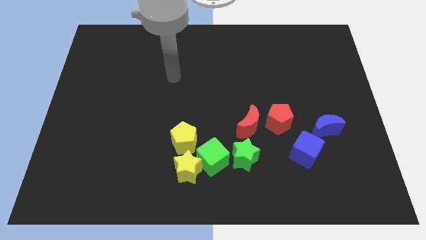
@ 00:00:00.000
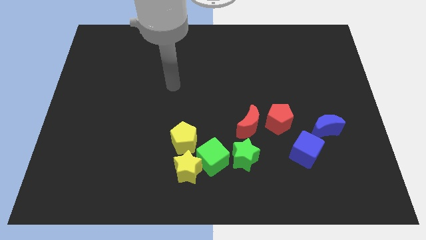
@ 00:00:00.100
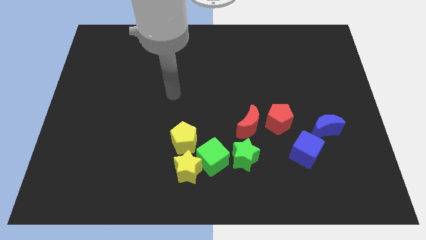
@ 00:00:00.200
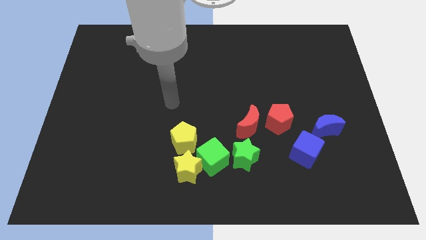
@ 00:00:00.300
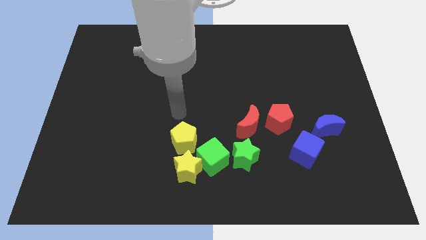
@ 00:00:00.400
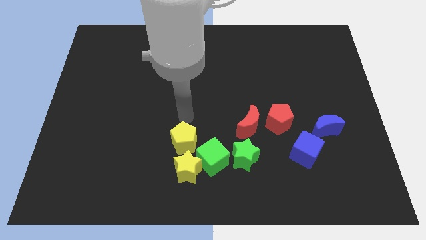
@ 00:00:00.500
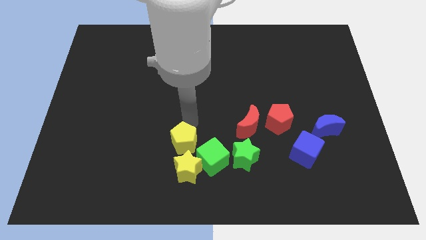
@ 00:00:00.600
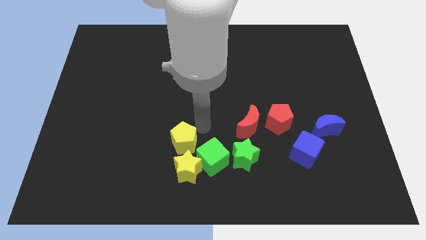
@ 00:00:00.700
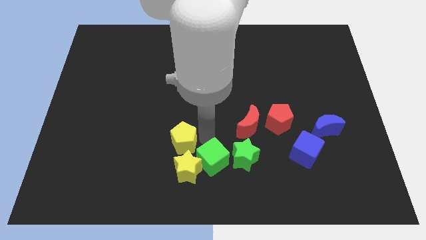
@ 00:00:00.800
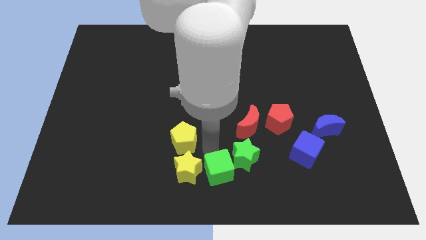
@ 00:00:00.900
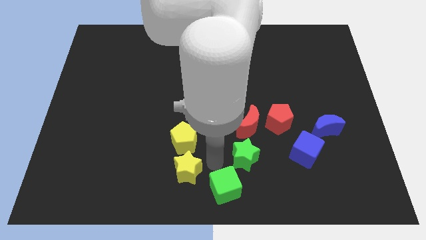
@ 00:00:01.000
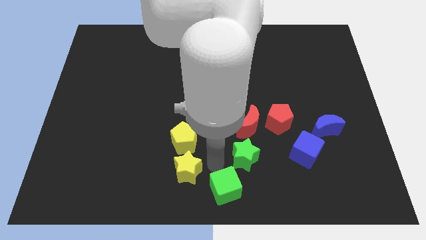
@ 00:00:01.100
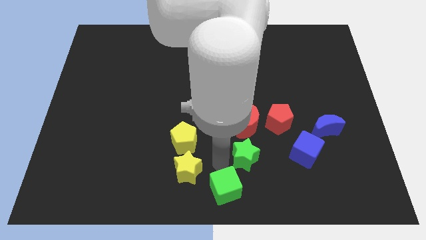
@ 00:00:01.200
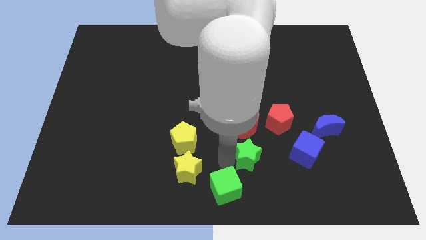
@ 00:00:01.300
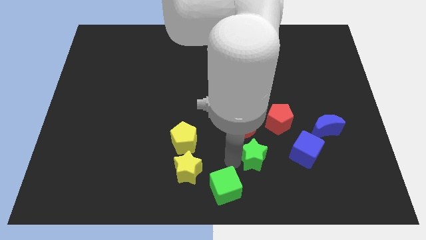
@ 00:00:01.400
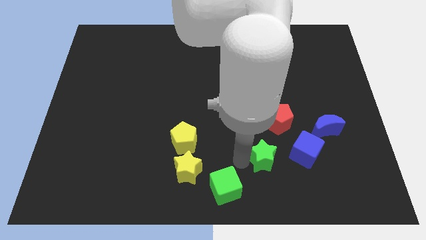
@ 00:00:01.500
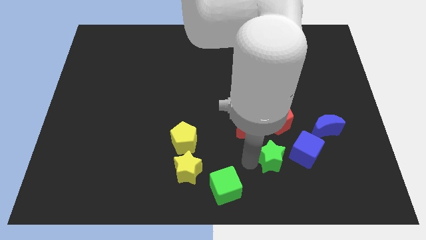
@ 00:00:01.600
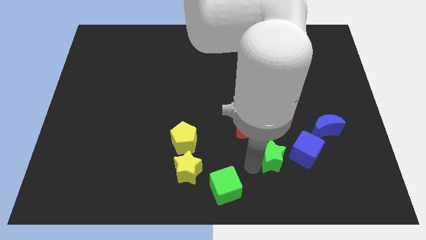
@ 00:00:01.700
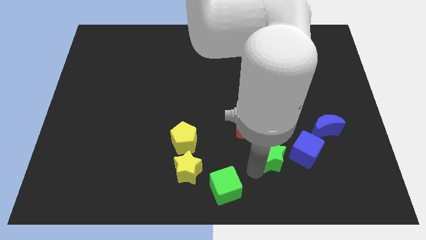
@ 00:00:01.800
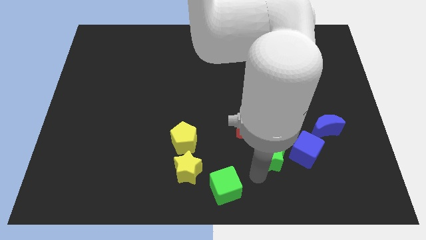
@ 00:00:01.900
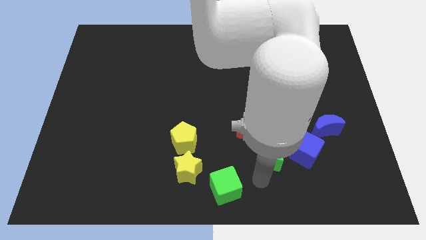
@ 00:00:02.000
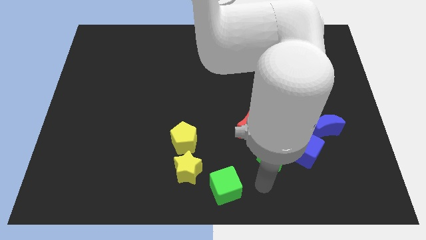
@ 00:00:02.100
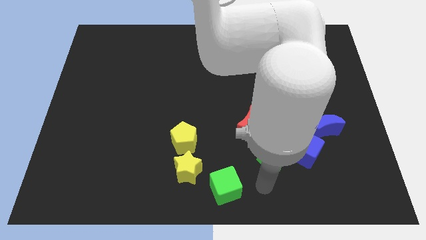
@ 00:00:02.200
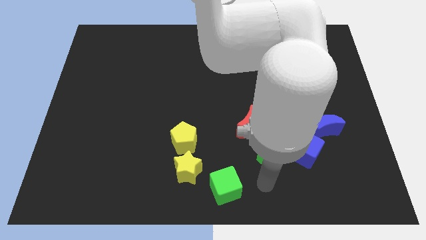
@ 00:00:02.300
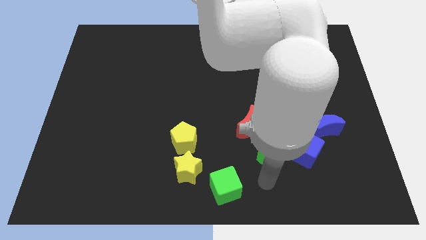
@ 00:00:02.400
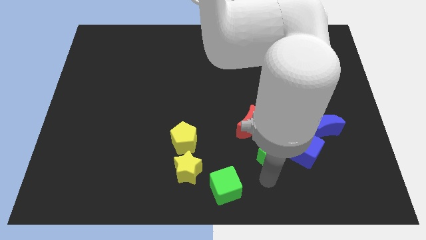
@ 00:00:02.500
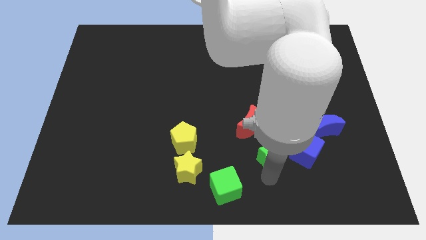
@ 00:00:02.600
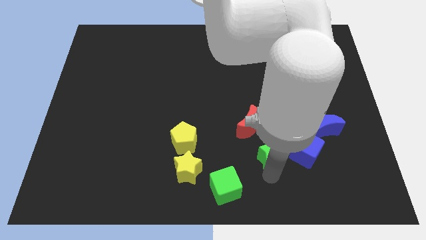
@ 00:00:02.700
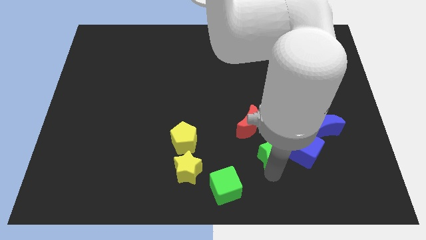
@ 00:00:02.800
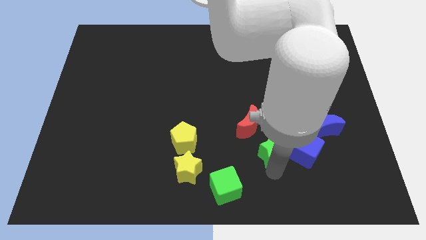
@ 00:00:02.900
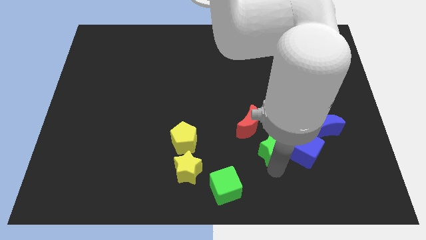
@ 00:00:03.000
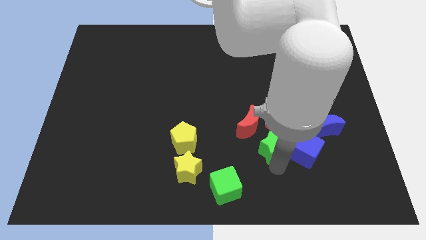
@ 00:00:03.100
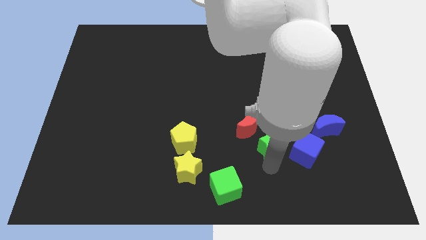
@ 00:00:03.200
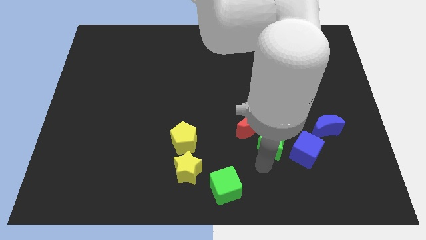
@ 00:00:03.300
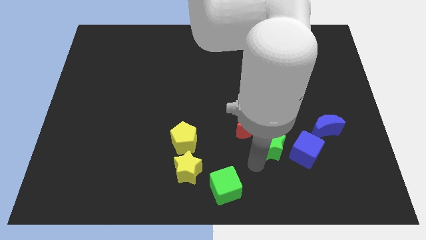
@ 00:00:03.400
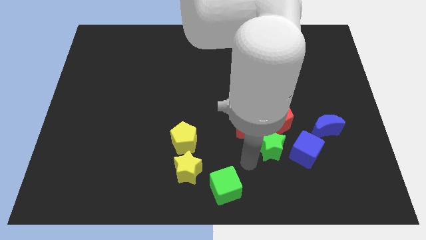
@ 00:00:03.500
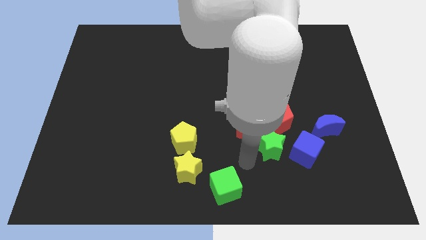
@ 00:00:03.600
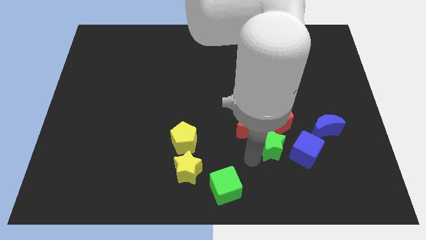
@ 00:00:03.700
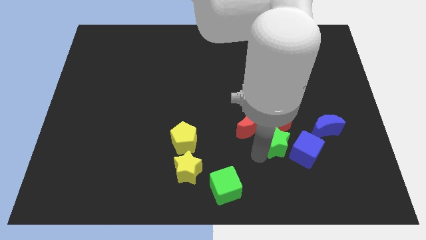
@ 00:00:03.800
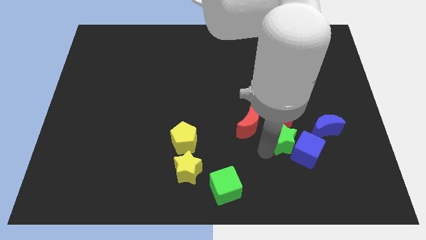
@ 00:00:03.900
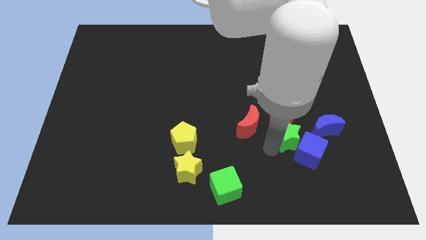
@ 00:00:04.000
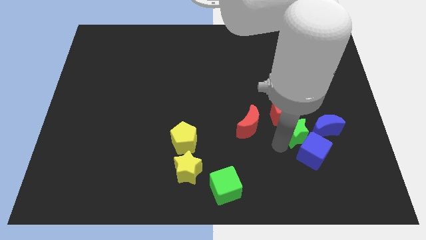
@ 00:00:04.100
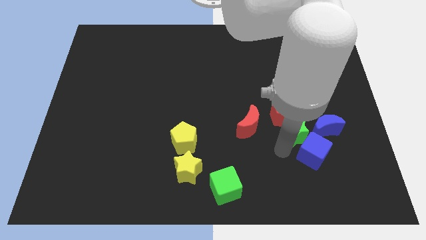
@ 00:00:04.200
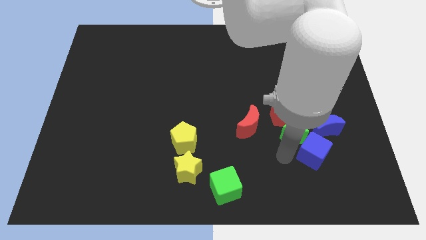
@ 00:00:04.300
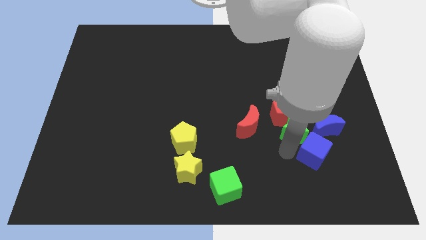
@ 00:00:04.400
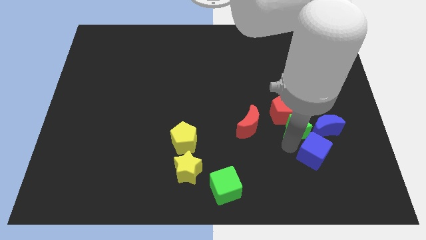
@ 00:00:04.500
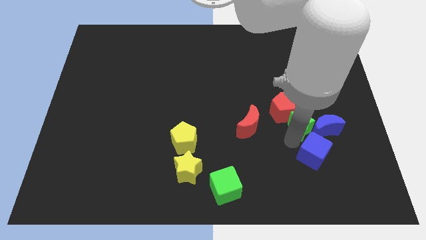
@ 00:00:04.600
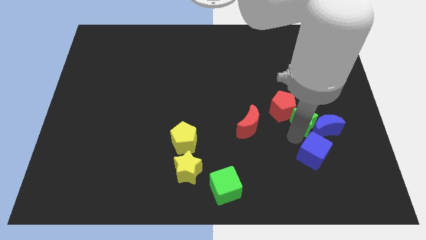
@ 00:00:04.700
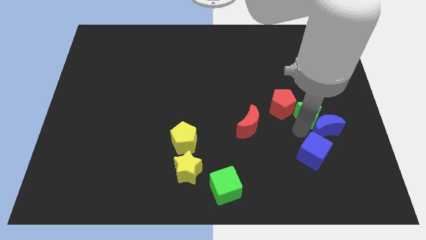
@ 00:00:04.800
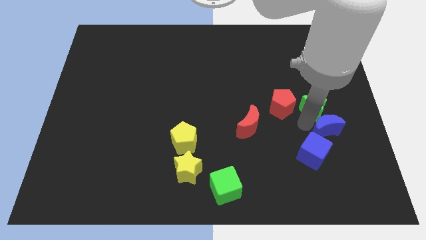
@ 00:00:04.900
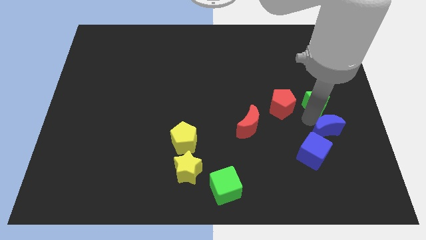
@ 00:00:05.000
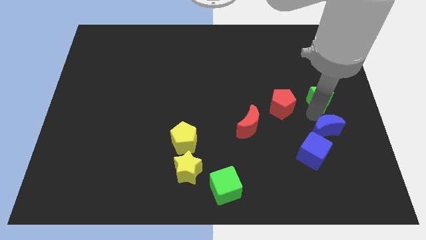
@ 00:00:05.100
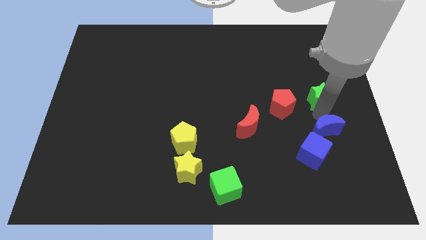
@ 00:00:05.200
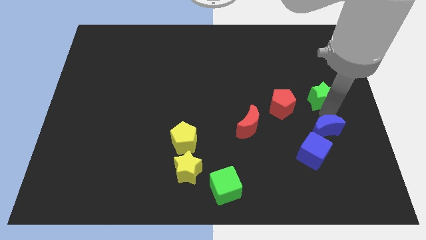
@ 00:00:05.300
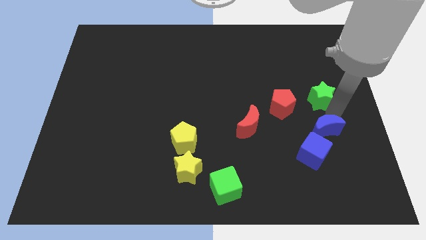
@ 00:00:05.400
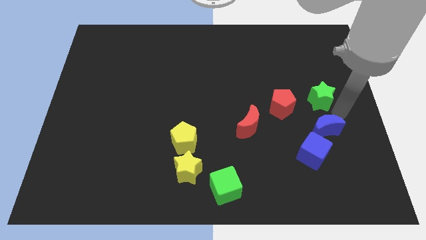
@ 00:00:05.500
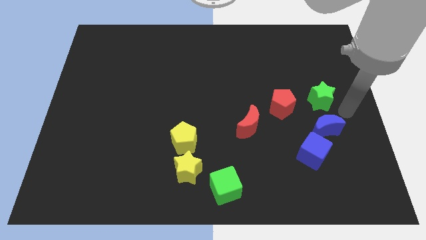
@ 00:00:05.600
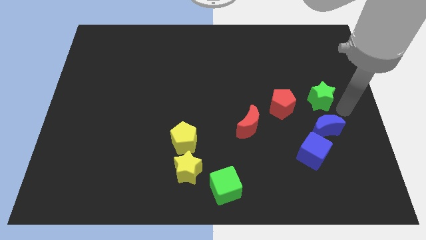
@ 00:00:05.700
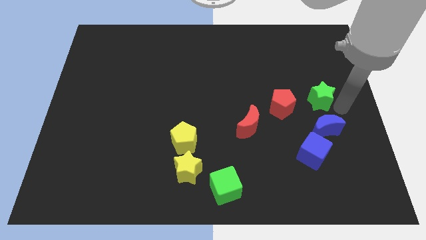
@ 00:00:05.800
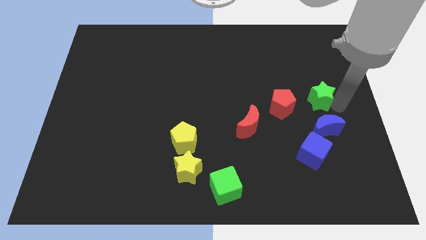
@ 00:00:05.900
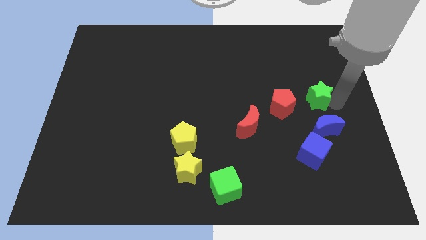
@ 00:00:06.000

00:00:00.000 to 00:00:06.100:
put the green star to the top right side of the red pentagon

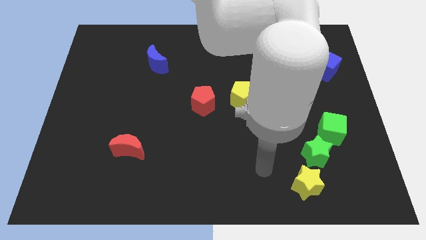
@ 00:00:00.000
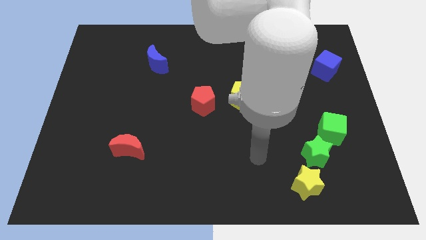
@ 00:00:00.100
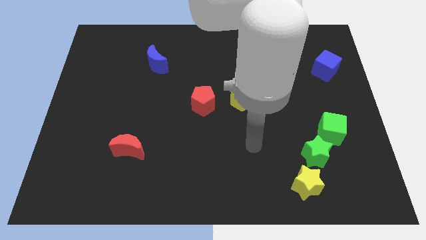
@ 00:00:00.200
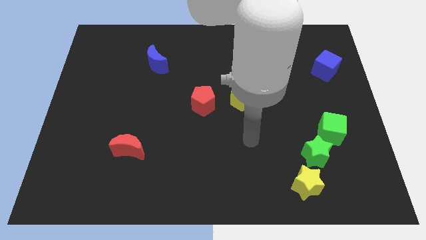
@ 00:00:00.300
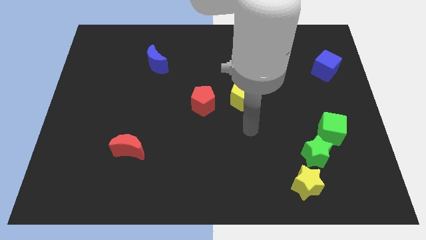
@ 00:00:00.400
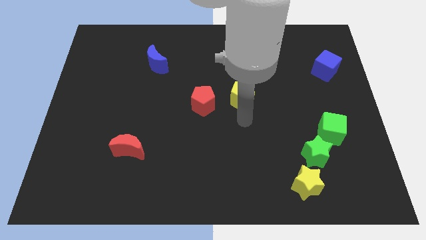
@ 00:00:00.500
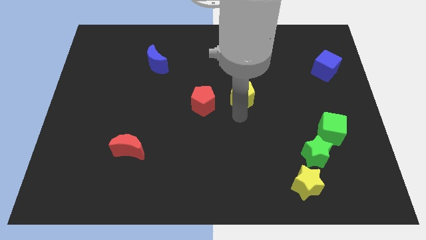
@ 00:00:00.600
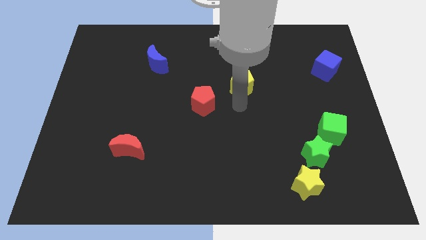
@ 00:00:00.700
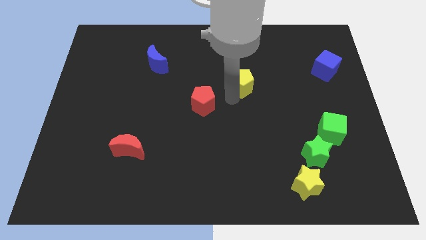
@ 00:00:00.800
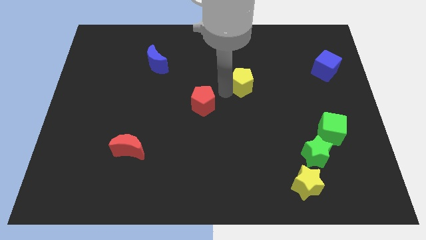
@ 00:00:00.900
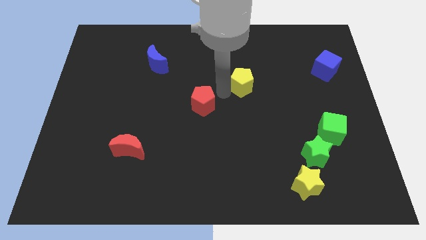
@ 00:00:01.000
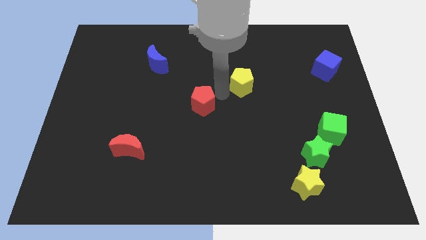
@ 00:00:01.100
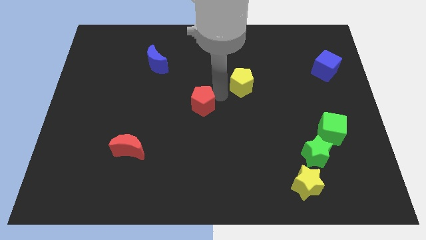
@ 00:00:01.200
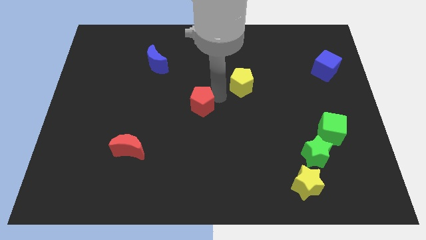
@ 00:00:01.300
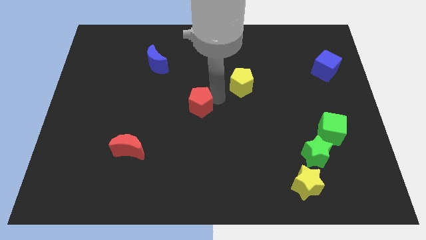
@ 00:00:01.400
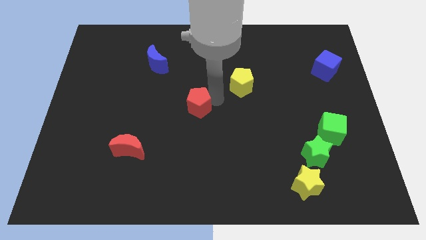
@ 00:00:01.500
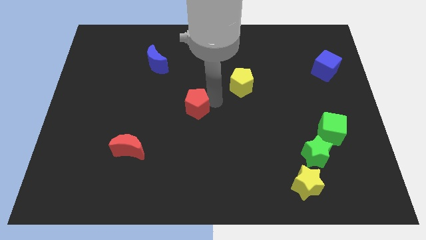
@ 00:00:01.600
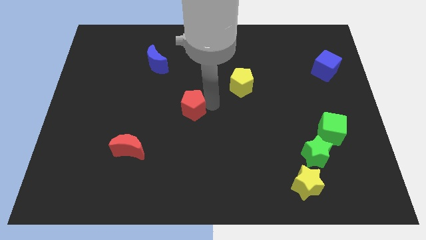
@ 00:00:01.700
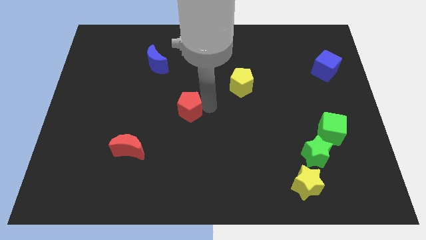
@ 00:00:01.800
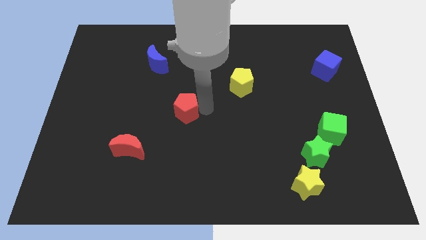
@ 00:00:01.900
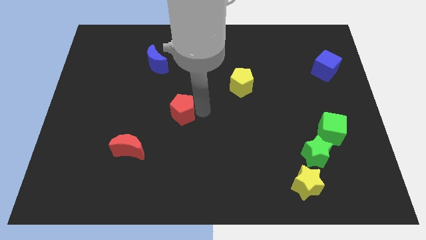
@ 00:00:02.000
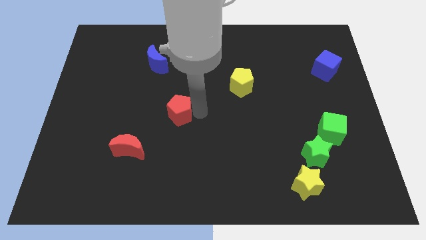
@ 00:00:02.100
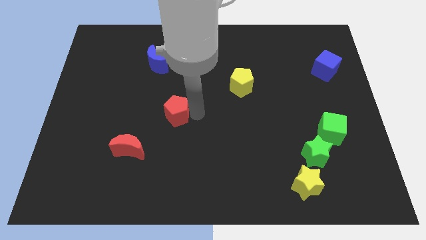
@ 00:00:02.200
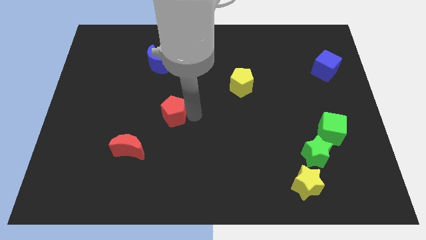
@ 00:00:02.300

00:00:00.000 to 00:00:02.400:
slide the red pentagon to the top right side of the red moon
